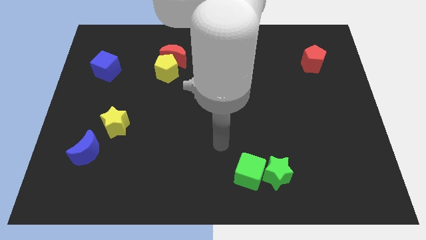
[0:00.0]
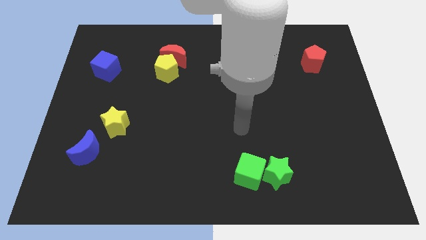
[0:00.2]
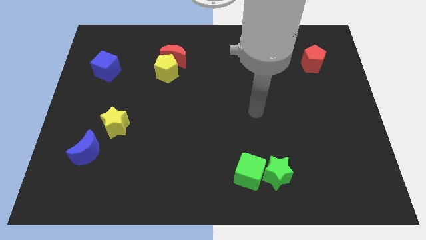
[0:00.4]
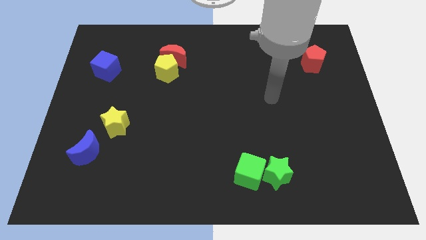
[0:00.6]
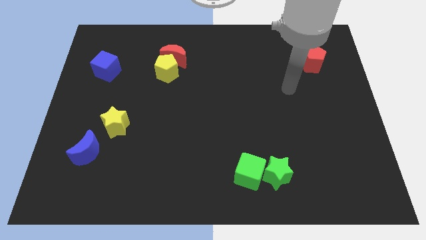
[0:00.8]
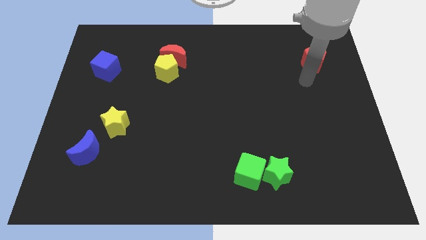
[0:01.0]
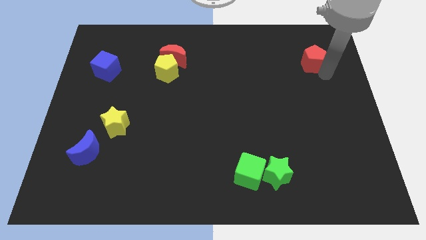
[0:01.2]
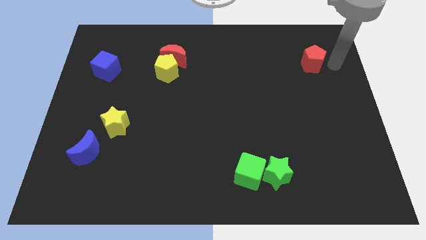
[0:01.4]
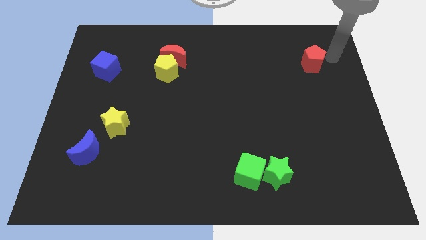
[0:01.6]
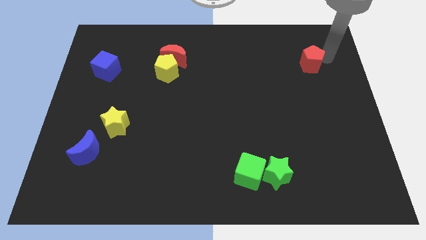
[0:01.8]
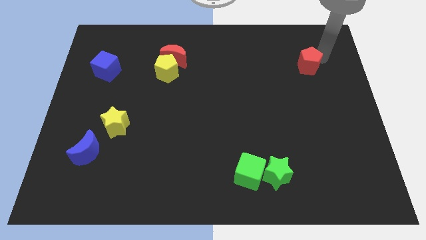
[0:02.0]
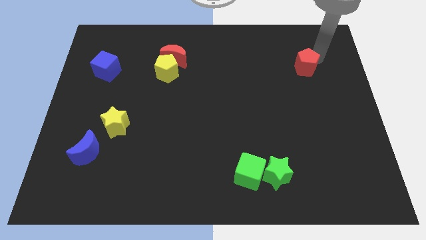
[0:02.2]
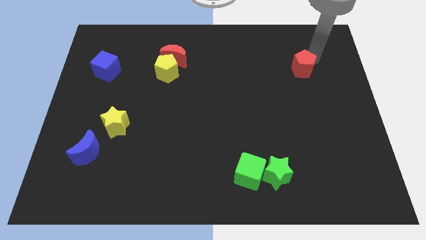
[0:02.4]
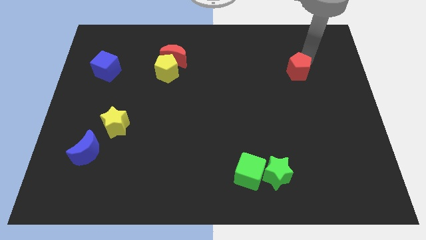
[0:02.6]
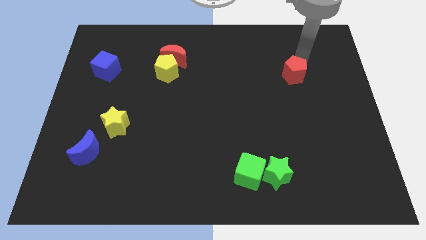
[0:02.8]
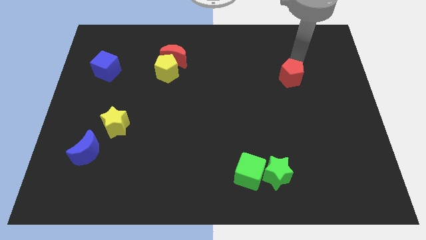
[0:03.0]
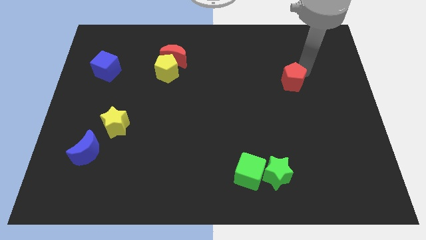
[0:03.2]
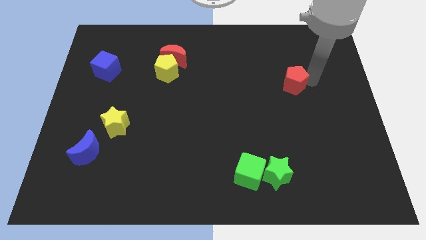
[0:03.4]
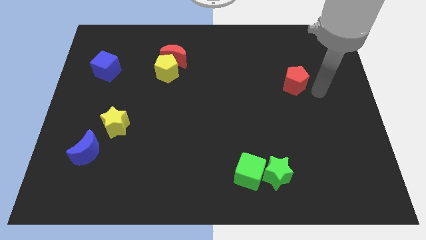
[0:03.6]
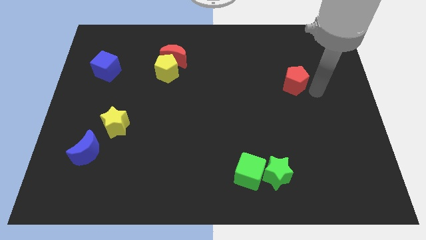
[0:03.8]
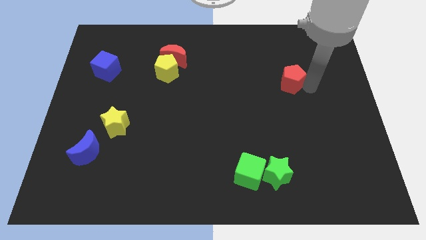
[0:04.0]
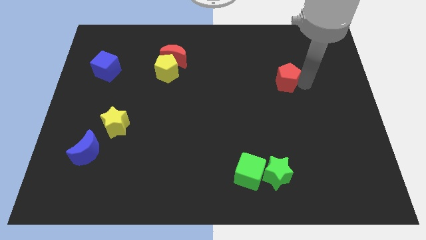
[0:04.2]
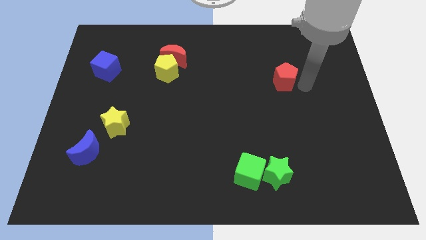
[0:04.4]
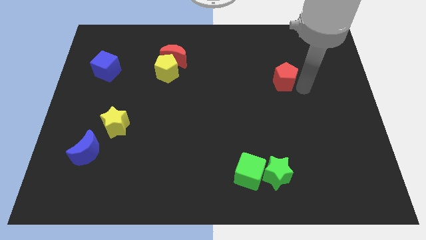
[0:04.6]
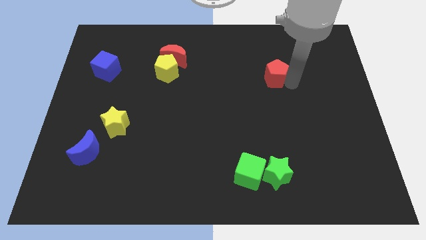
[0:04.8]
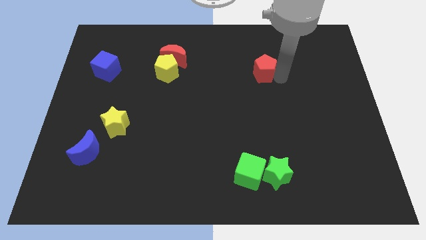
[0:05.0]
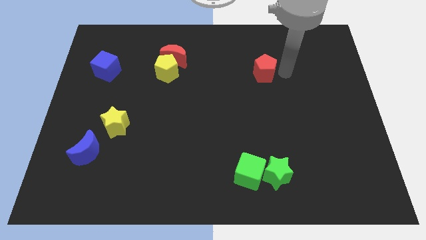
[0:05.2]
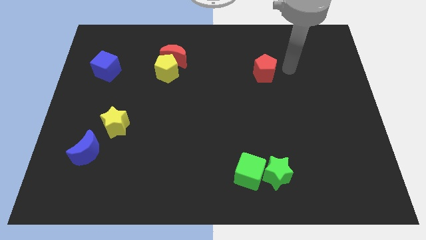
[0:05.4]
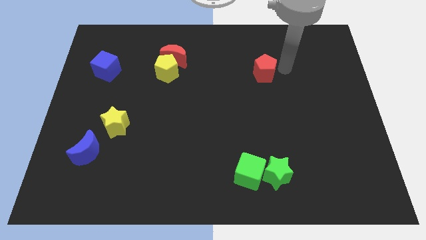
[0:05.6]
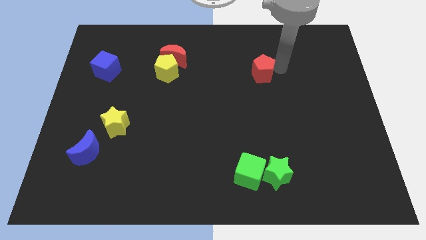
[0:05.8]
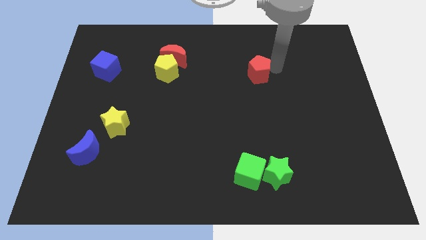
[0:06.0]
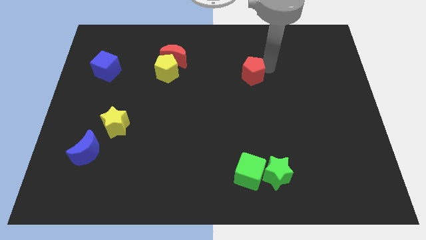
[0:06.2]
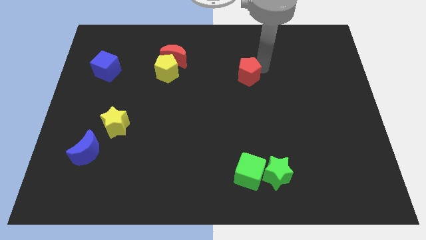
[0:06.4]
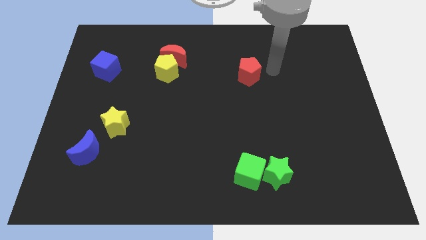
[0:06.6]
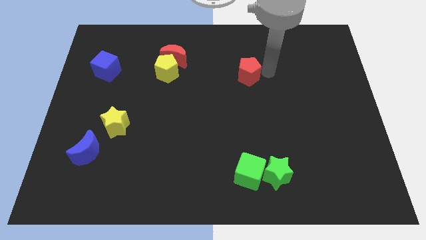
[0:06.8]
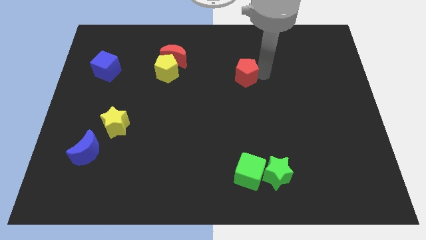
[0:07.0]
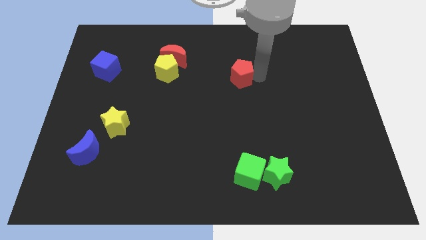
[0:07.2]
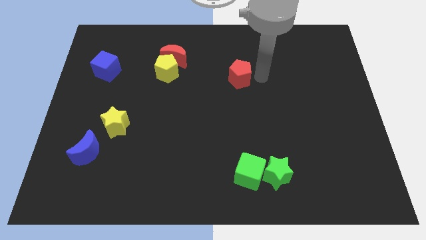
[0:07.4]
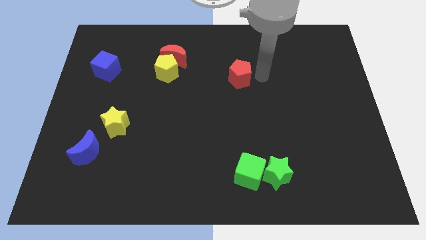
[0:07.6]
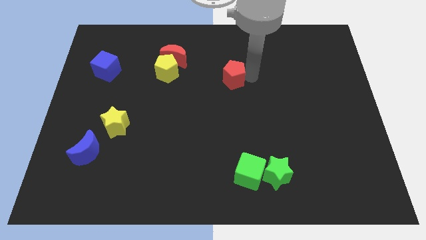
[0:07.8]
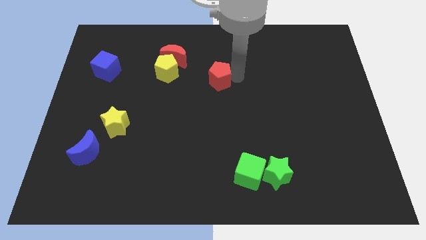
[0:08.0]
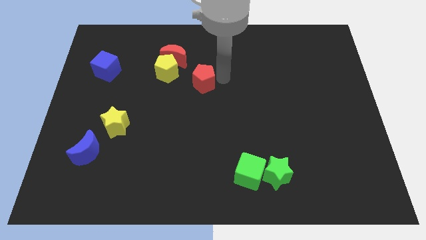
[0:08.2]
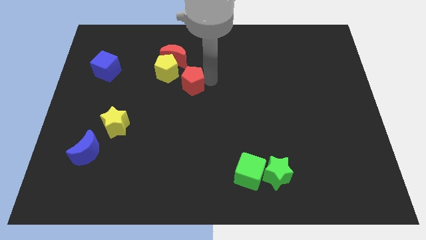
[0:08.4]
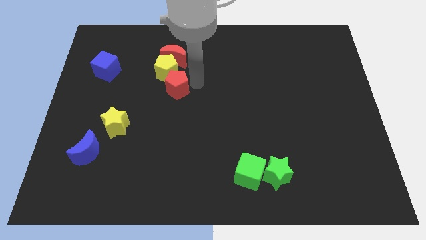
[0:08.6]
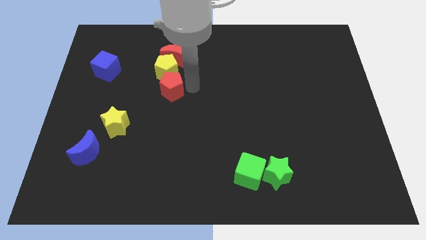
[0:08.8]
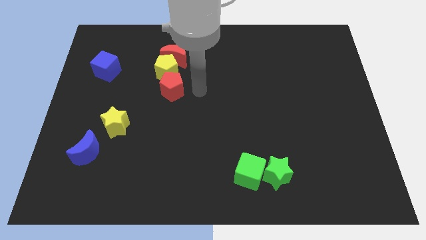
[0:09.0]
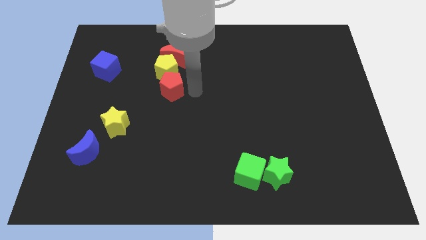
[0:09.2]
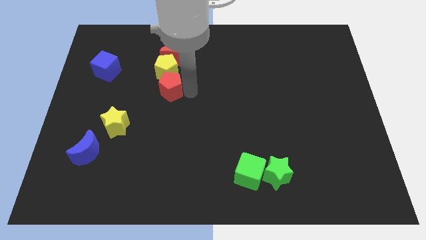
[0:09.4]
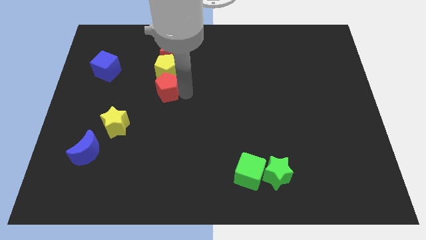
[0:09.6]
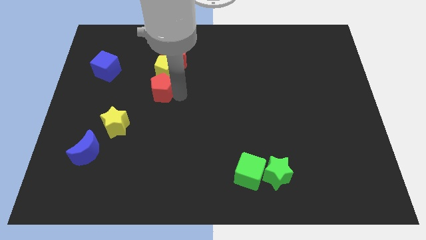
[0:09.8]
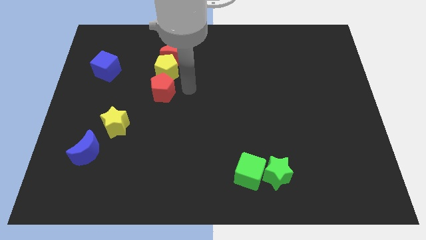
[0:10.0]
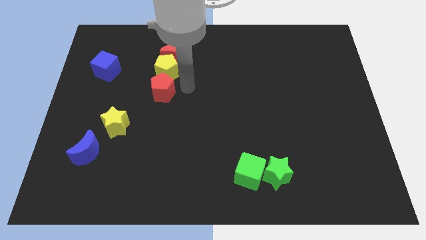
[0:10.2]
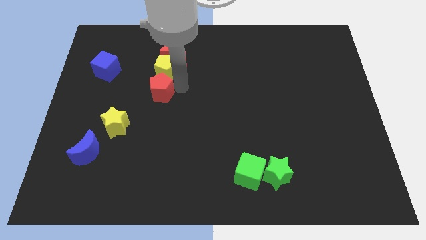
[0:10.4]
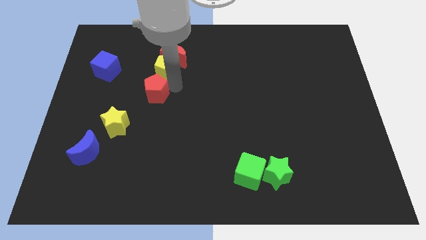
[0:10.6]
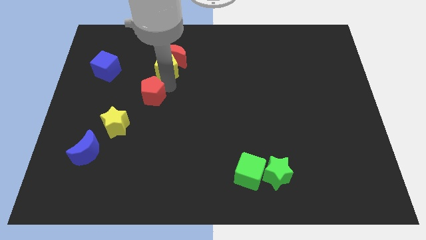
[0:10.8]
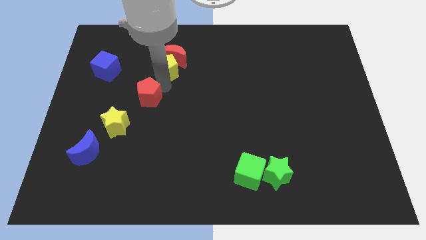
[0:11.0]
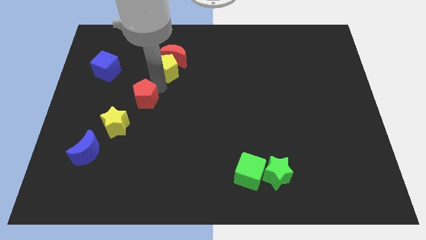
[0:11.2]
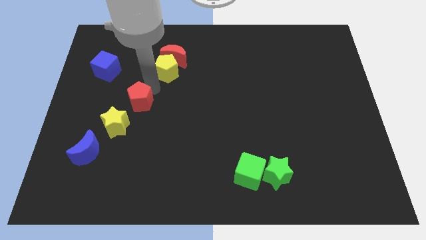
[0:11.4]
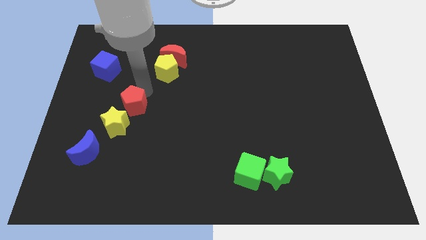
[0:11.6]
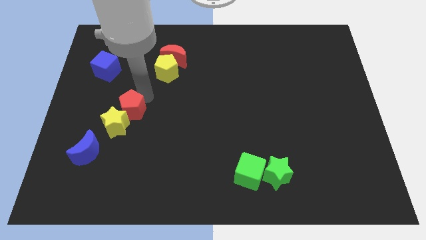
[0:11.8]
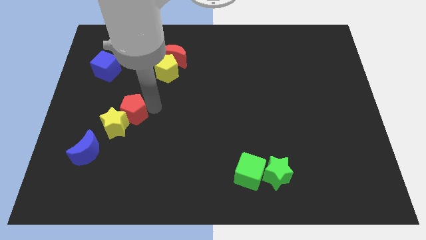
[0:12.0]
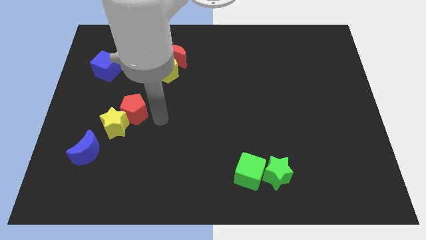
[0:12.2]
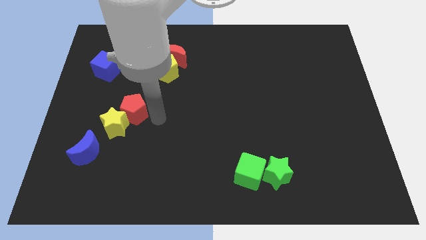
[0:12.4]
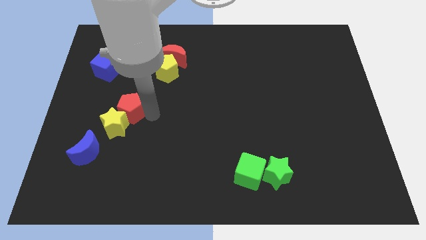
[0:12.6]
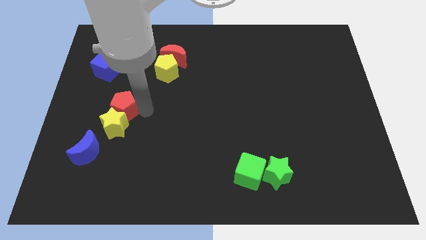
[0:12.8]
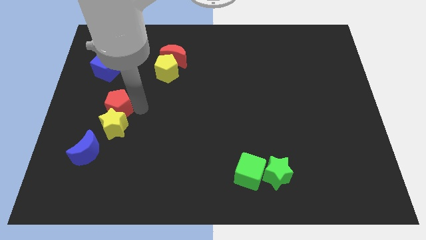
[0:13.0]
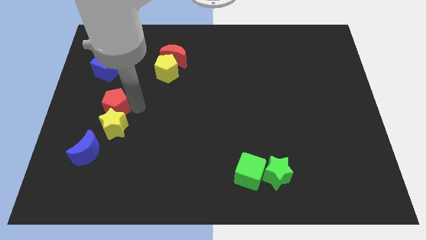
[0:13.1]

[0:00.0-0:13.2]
move the red pentagon to the bottom of the blue cube
